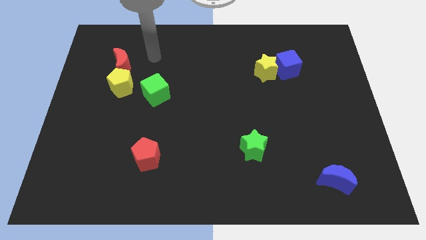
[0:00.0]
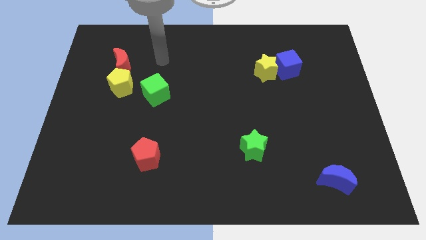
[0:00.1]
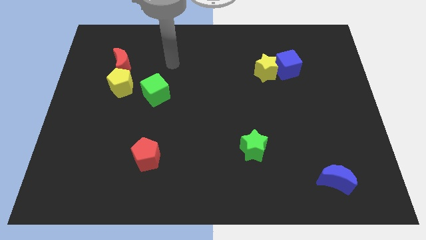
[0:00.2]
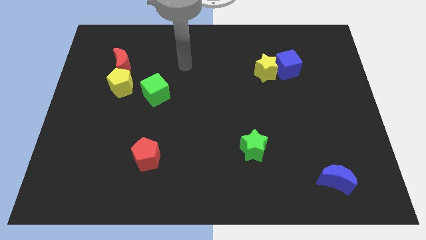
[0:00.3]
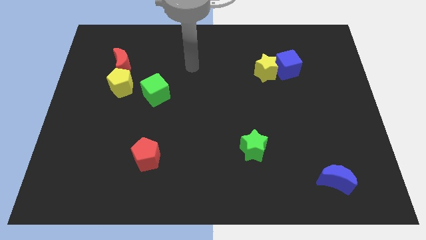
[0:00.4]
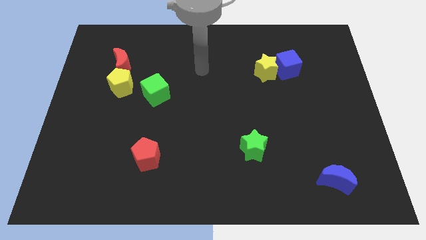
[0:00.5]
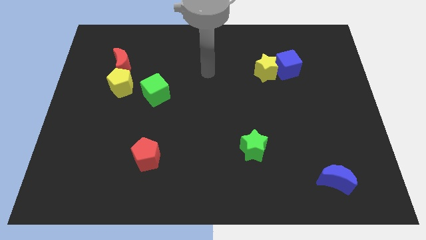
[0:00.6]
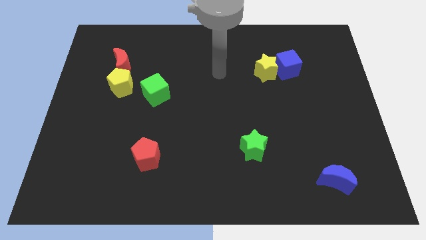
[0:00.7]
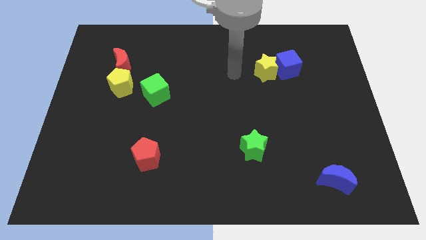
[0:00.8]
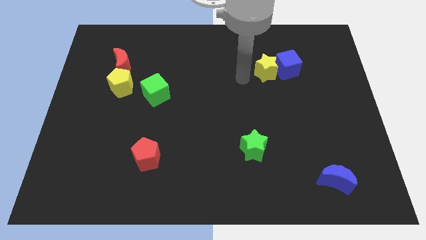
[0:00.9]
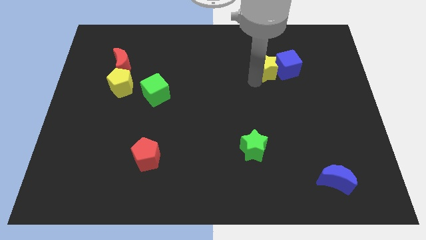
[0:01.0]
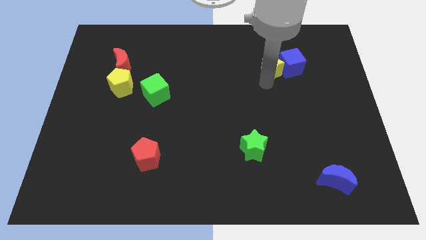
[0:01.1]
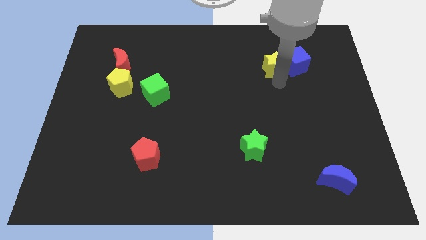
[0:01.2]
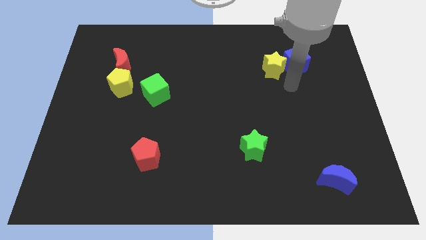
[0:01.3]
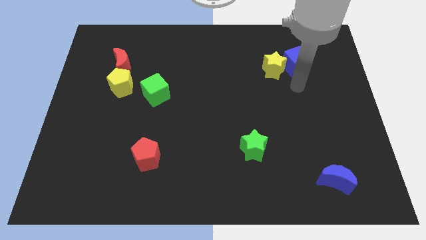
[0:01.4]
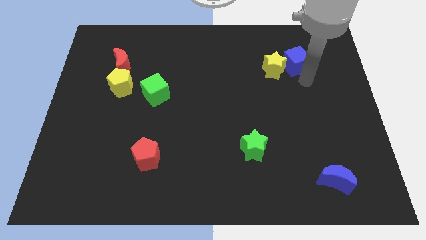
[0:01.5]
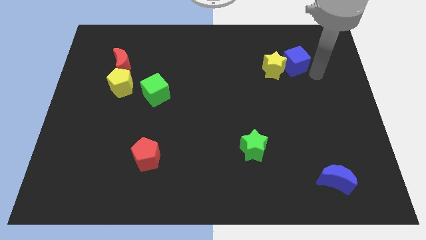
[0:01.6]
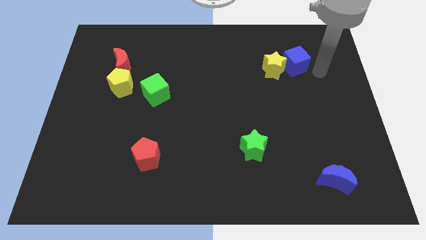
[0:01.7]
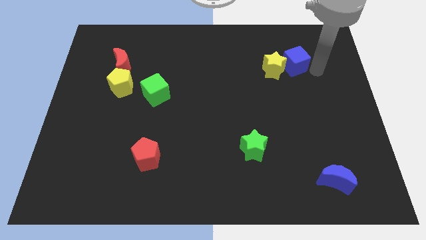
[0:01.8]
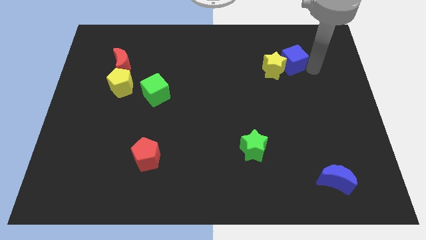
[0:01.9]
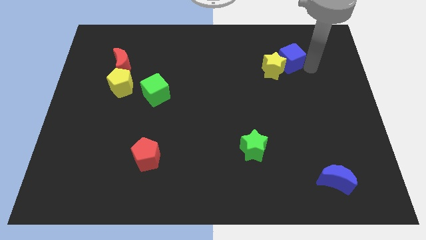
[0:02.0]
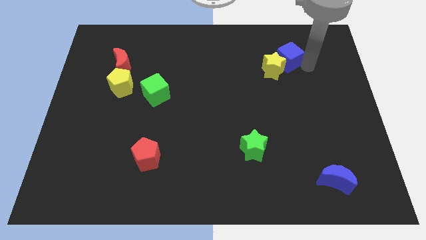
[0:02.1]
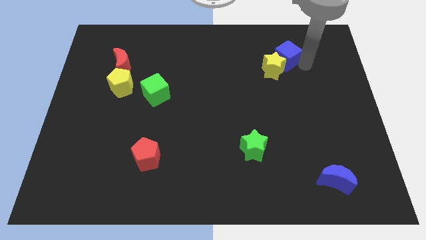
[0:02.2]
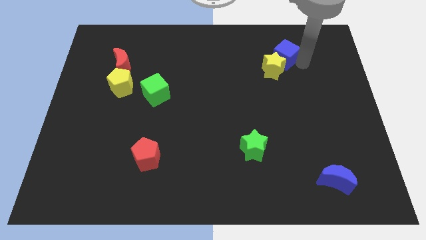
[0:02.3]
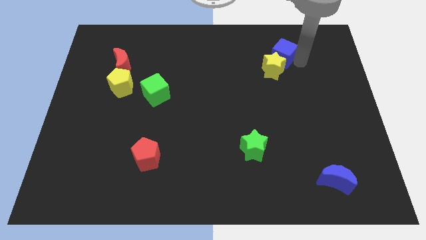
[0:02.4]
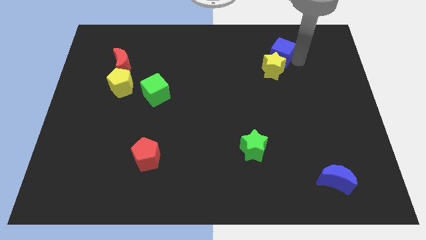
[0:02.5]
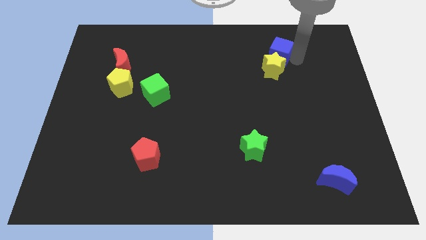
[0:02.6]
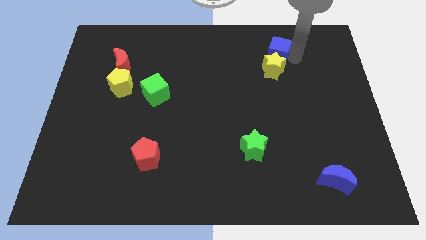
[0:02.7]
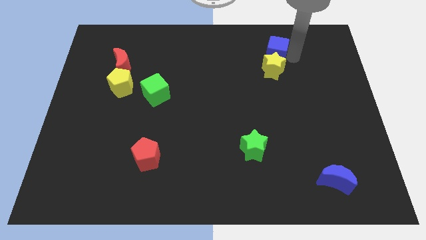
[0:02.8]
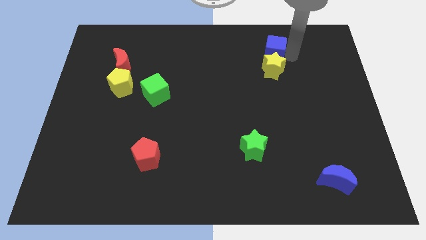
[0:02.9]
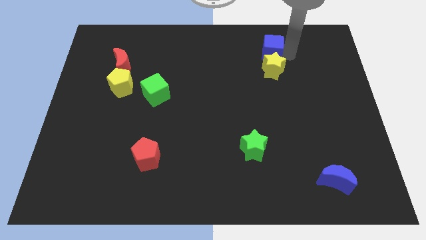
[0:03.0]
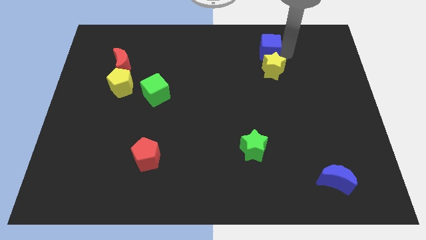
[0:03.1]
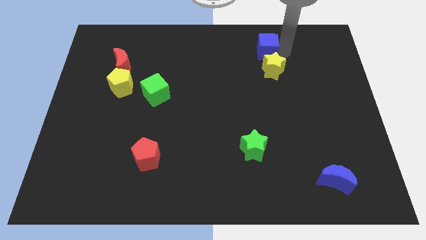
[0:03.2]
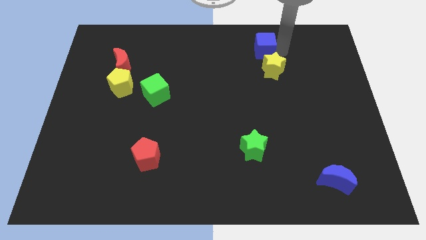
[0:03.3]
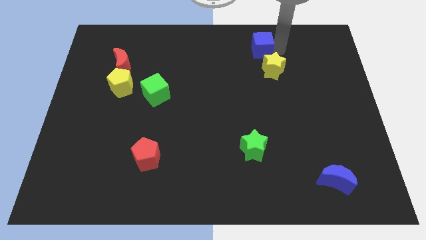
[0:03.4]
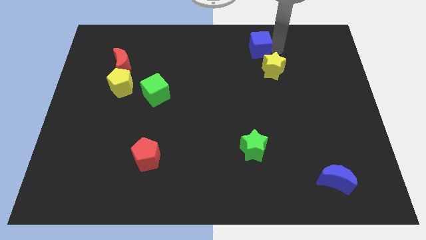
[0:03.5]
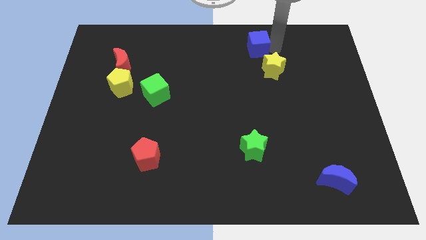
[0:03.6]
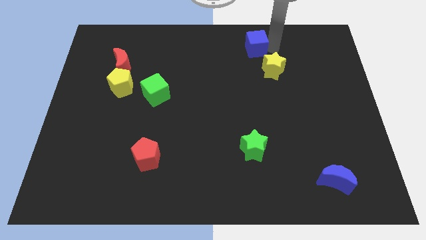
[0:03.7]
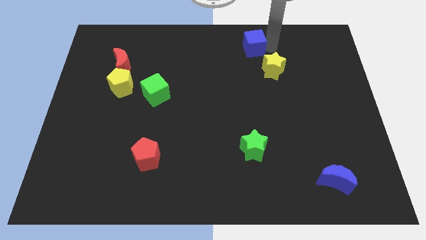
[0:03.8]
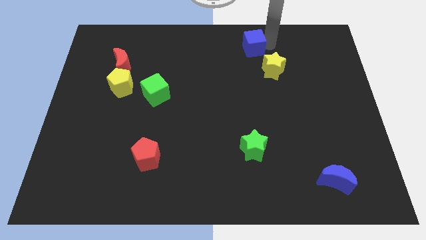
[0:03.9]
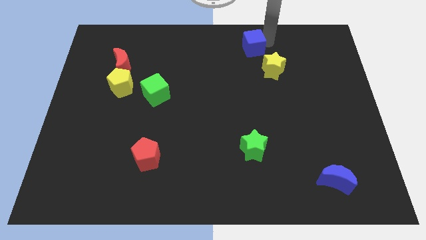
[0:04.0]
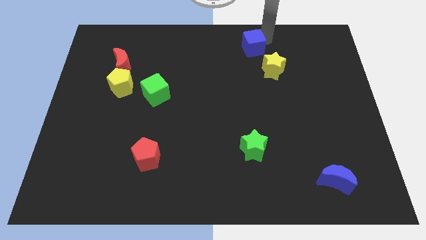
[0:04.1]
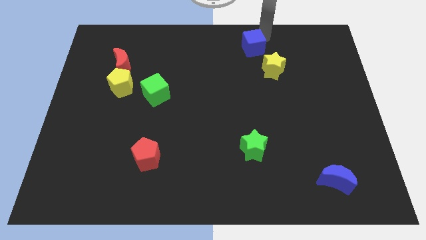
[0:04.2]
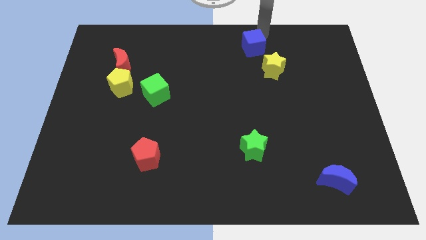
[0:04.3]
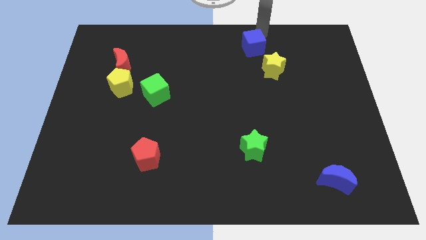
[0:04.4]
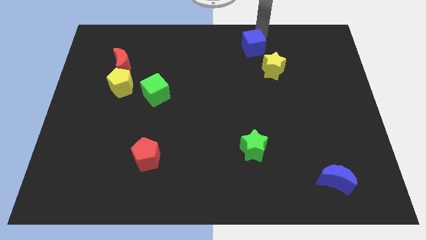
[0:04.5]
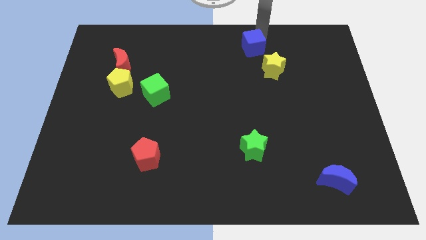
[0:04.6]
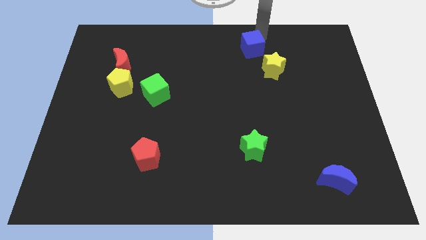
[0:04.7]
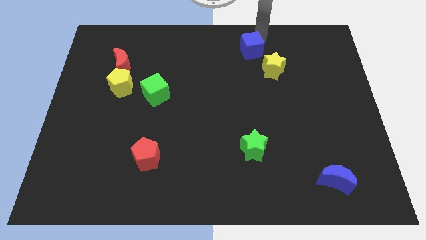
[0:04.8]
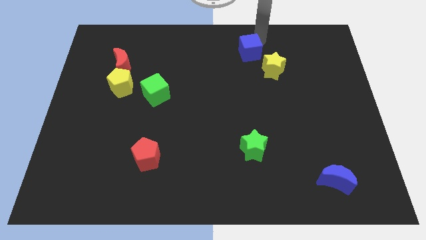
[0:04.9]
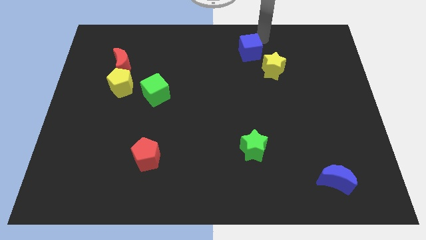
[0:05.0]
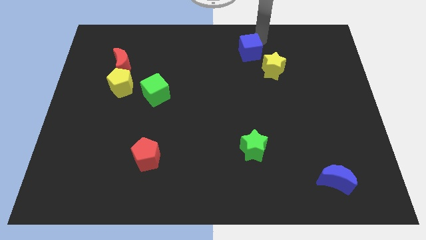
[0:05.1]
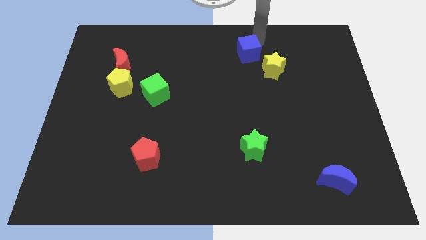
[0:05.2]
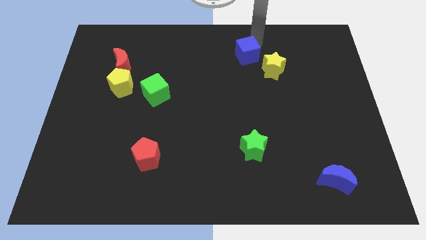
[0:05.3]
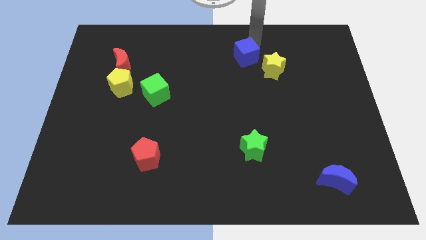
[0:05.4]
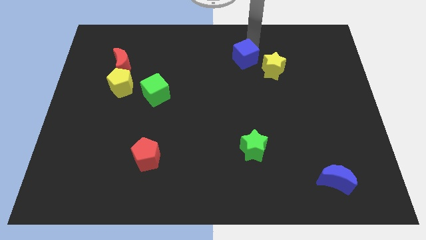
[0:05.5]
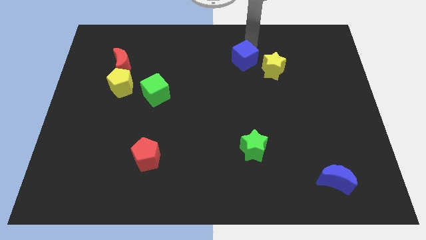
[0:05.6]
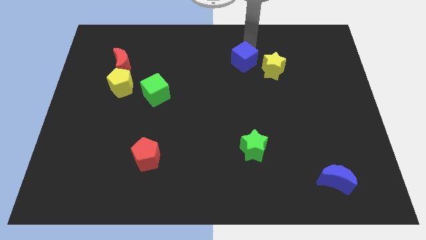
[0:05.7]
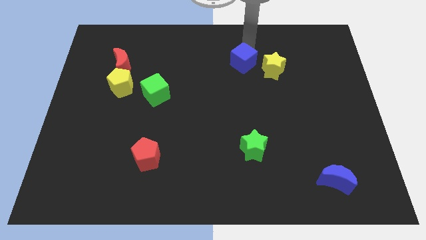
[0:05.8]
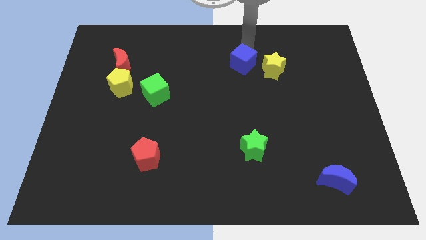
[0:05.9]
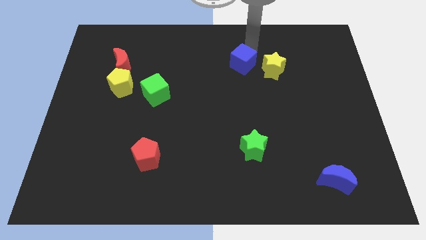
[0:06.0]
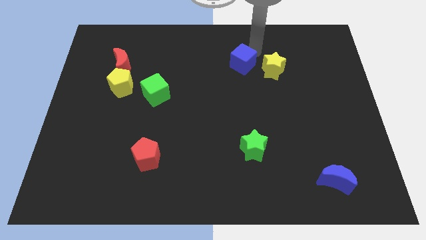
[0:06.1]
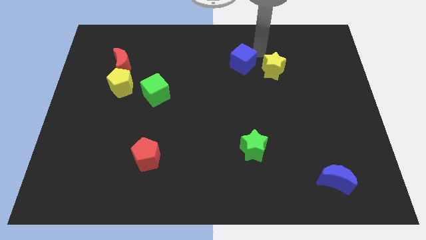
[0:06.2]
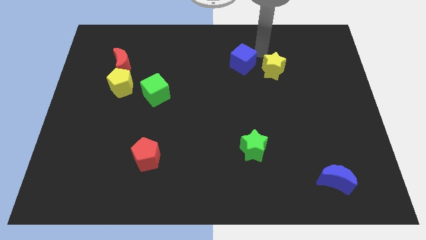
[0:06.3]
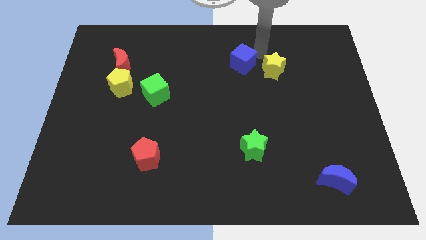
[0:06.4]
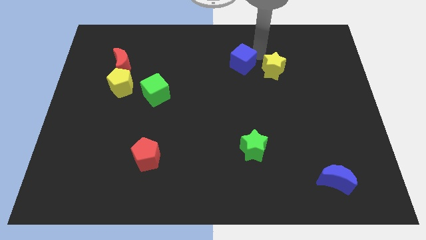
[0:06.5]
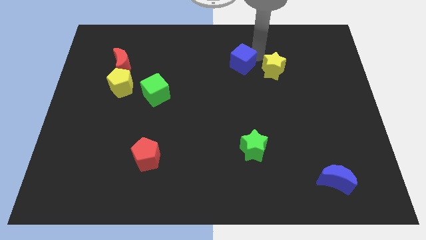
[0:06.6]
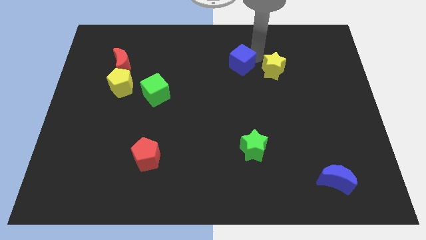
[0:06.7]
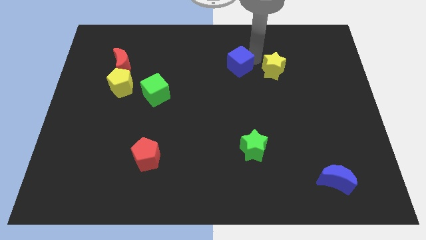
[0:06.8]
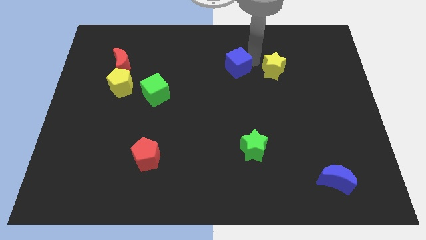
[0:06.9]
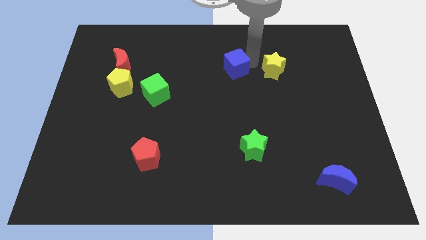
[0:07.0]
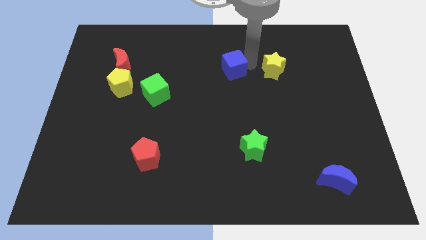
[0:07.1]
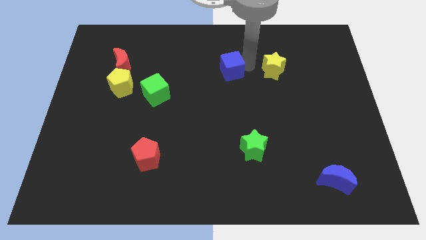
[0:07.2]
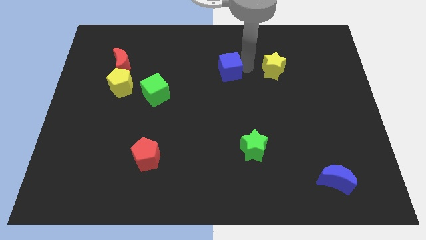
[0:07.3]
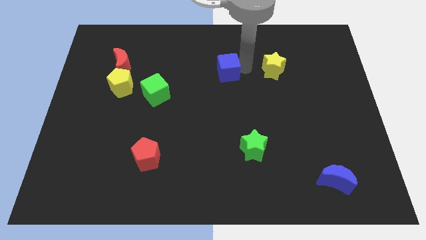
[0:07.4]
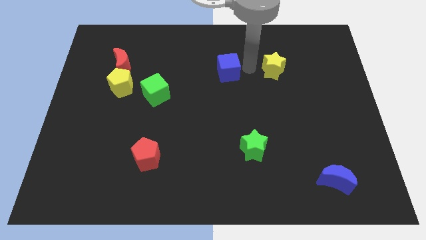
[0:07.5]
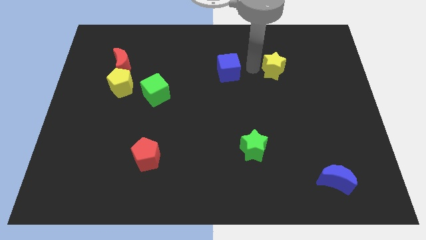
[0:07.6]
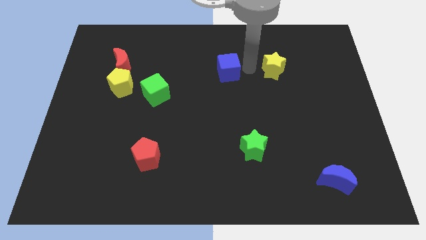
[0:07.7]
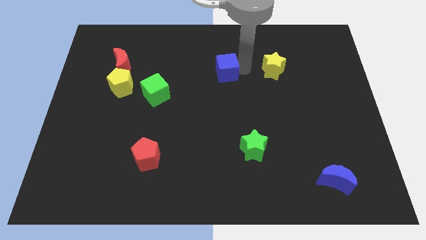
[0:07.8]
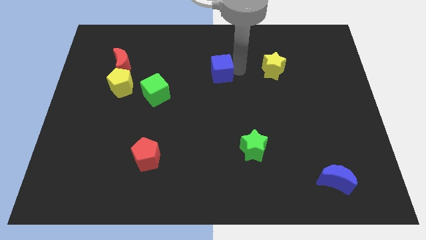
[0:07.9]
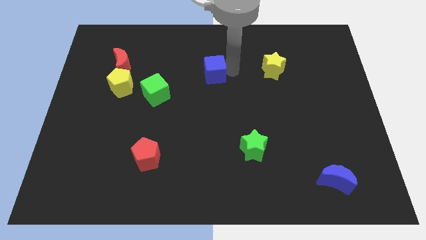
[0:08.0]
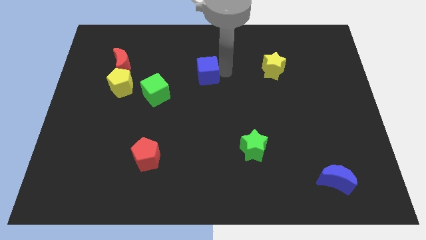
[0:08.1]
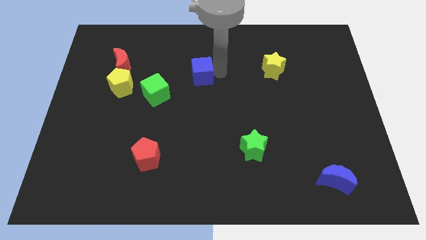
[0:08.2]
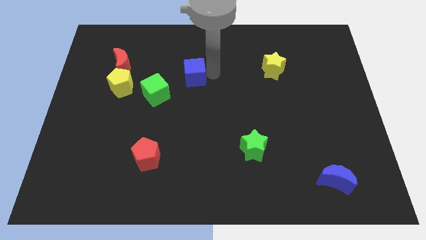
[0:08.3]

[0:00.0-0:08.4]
move the blue cube to the top right of the green cube
